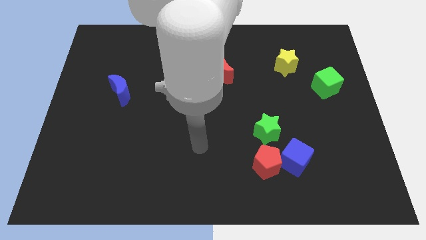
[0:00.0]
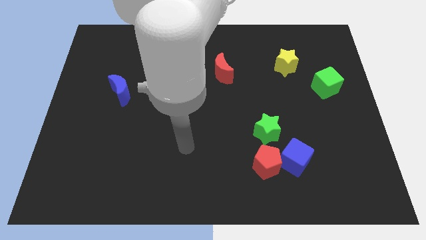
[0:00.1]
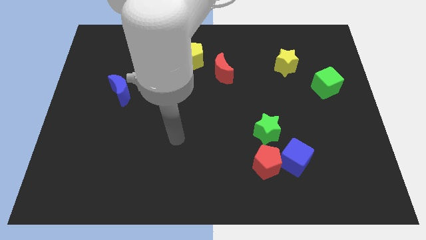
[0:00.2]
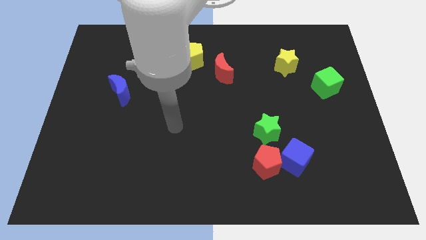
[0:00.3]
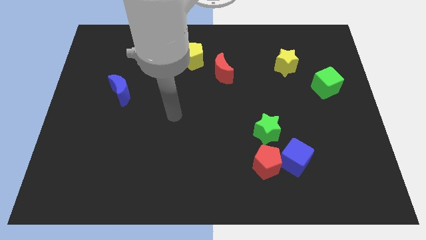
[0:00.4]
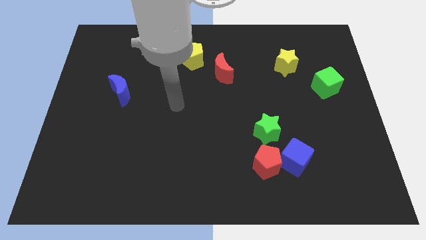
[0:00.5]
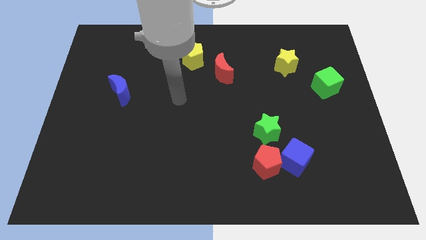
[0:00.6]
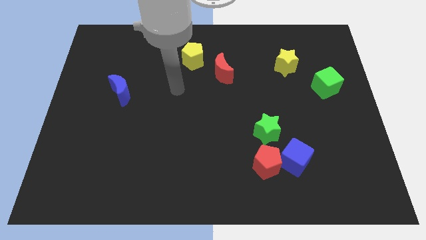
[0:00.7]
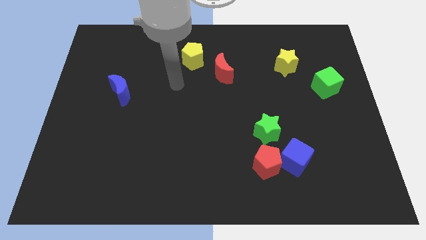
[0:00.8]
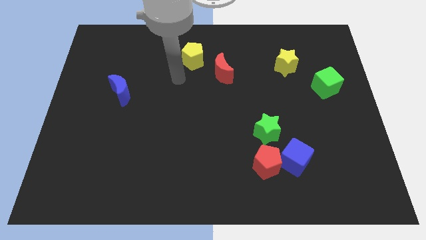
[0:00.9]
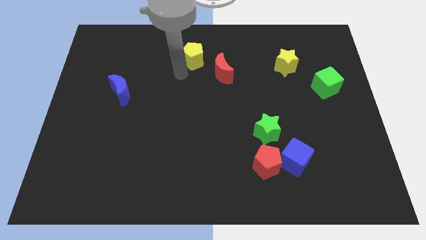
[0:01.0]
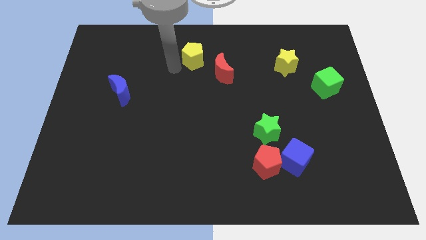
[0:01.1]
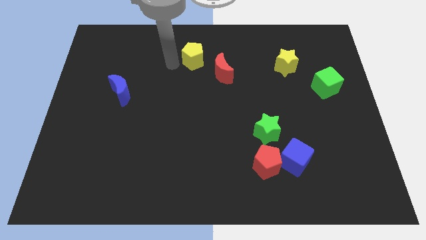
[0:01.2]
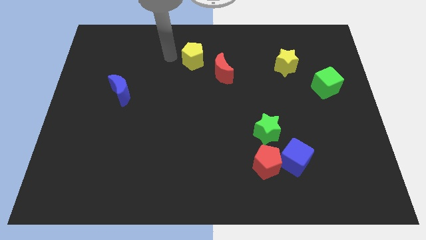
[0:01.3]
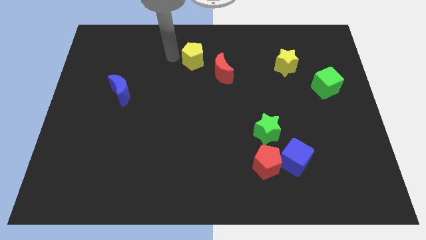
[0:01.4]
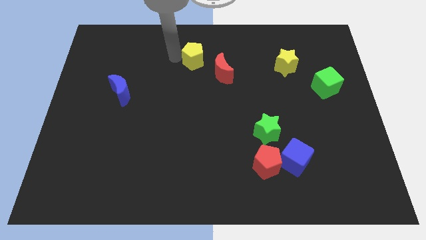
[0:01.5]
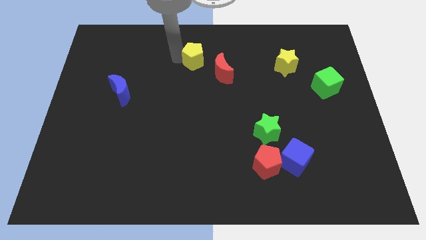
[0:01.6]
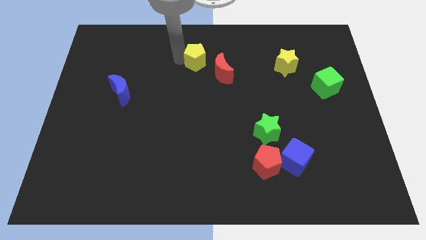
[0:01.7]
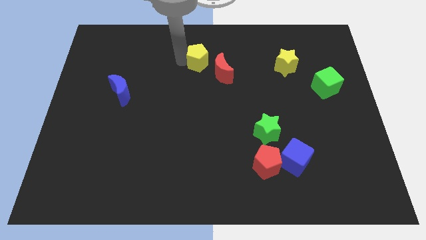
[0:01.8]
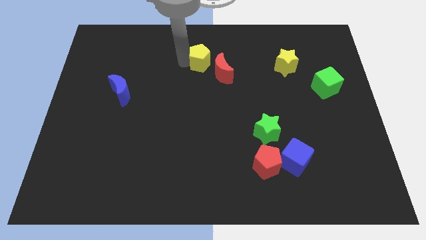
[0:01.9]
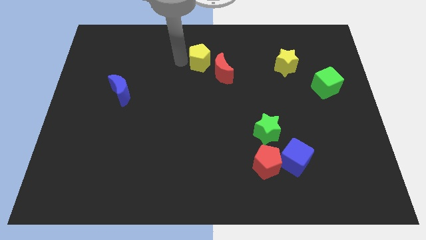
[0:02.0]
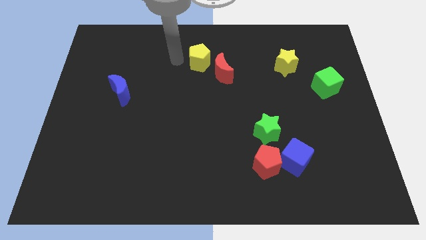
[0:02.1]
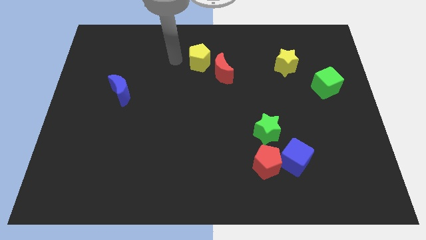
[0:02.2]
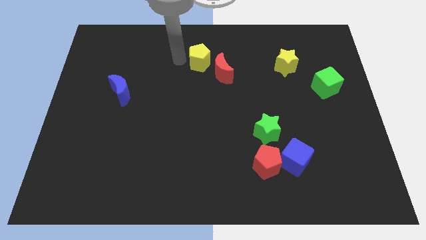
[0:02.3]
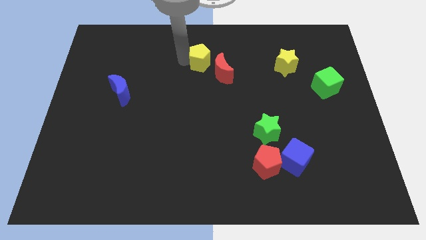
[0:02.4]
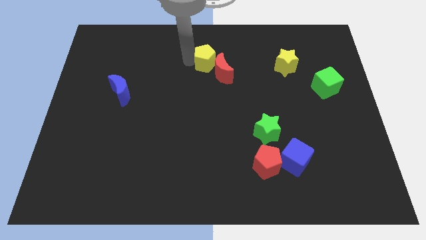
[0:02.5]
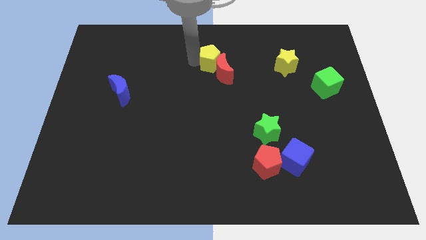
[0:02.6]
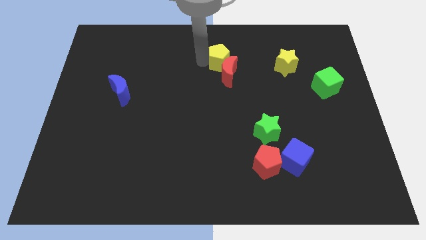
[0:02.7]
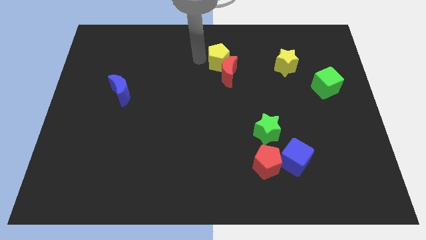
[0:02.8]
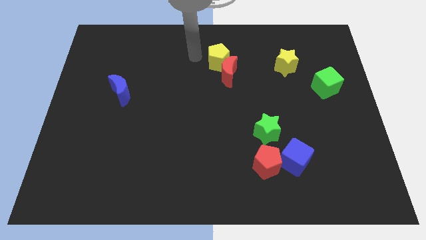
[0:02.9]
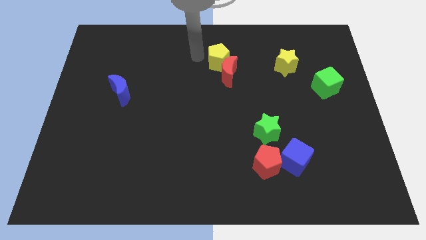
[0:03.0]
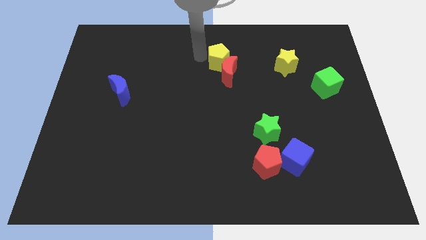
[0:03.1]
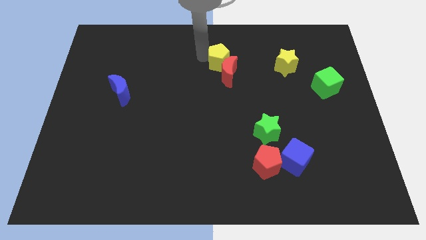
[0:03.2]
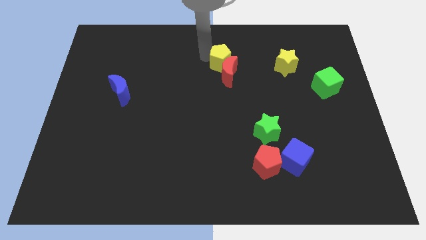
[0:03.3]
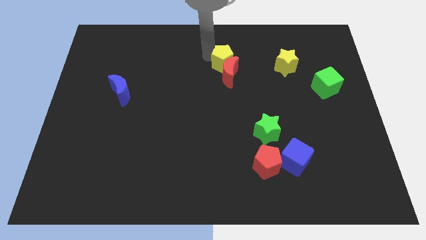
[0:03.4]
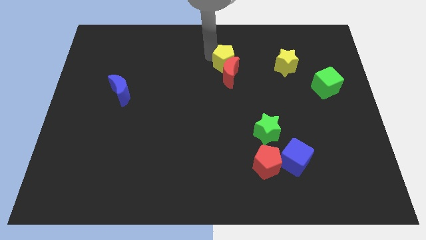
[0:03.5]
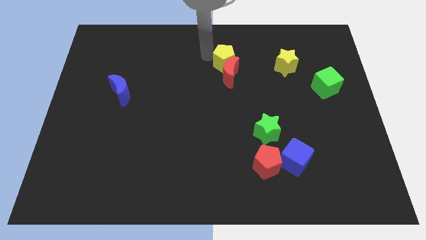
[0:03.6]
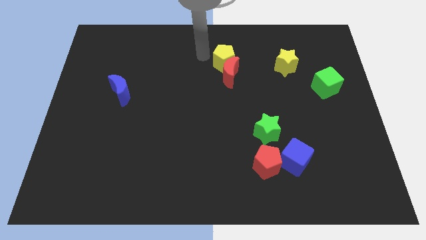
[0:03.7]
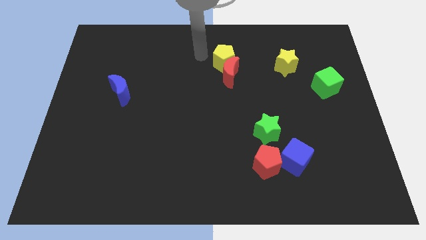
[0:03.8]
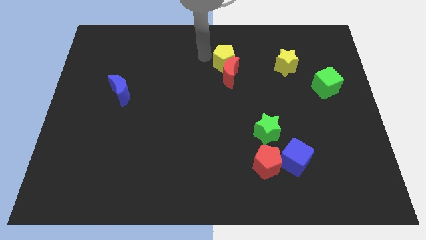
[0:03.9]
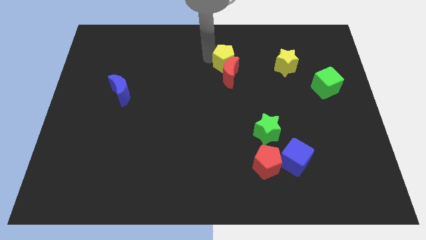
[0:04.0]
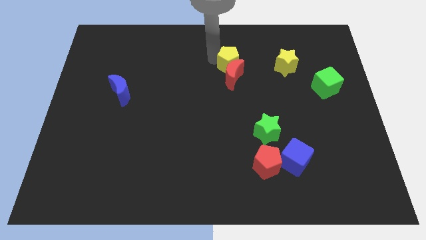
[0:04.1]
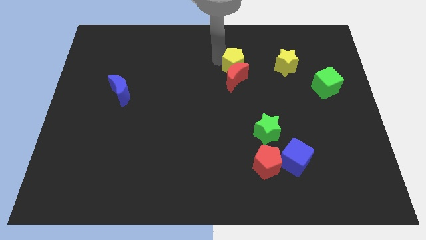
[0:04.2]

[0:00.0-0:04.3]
move the yellow pentagon a little bit down and to the right diagonally

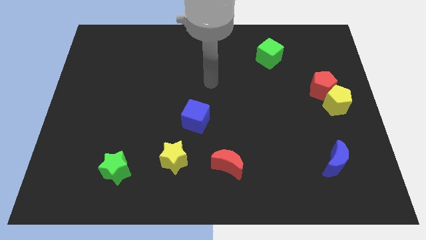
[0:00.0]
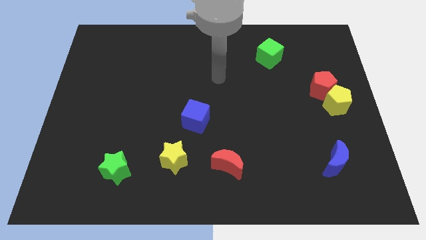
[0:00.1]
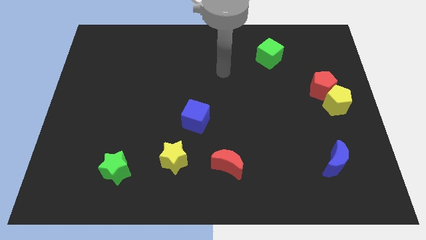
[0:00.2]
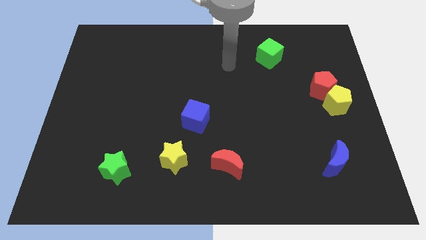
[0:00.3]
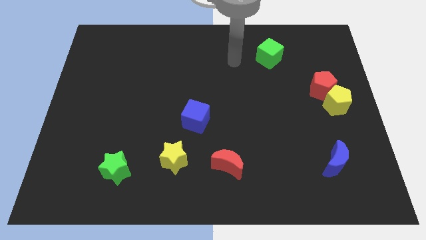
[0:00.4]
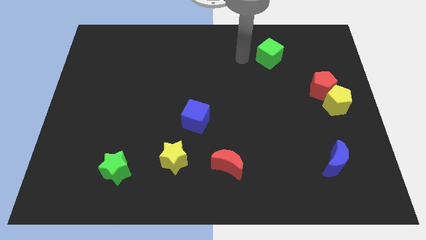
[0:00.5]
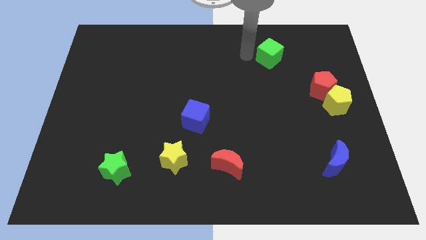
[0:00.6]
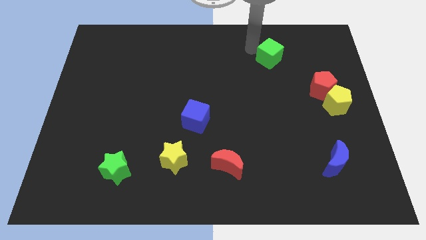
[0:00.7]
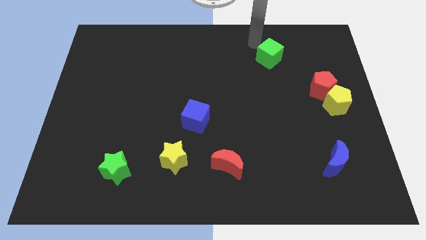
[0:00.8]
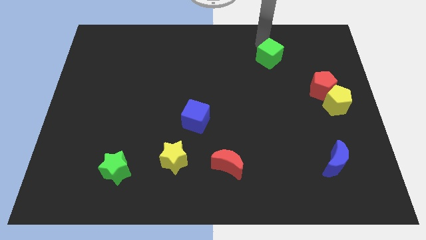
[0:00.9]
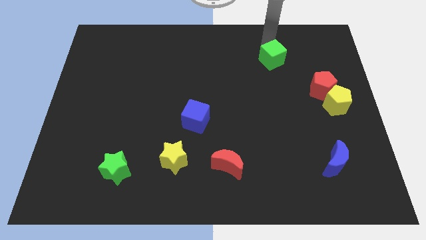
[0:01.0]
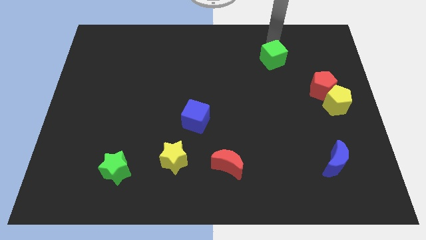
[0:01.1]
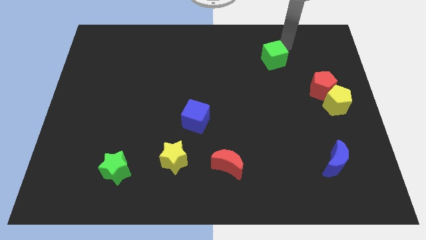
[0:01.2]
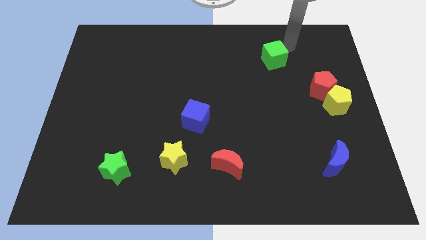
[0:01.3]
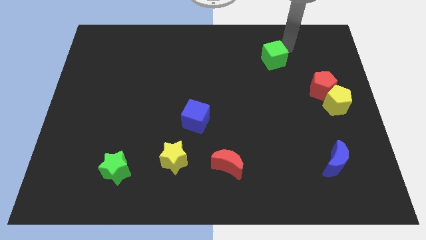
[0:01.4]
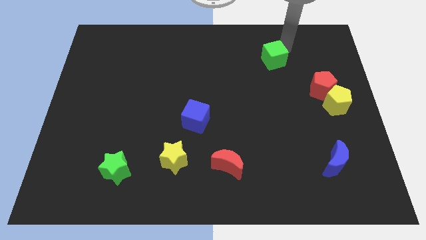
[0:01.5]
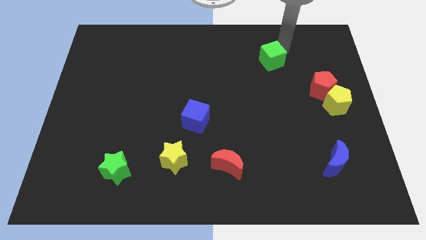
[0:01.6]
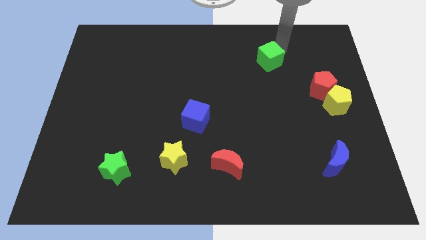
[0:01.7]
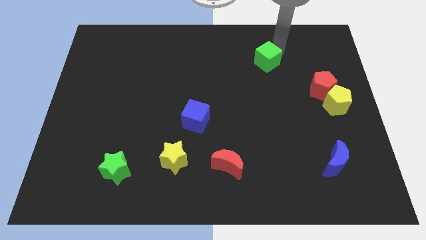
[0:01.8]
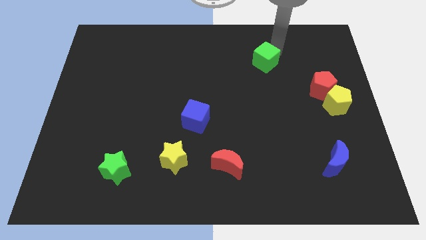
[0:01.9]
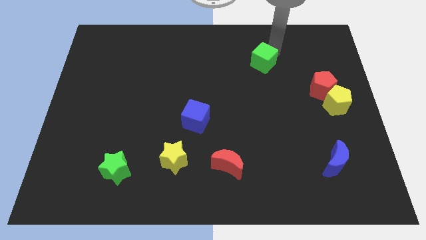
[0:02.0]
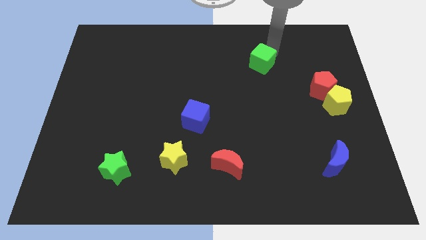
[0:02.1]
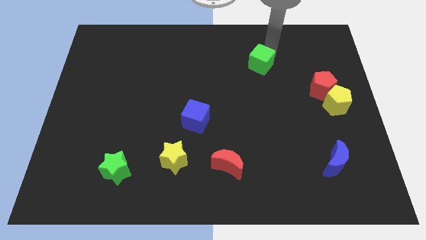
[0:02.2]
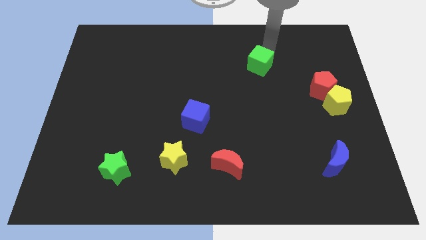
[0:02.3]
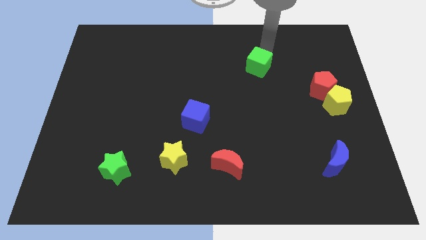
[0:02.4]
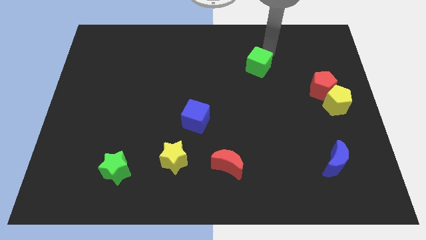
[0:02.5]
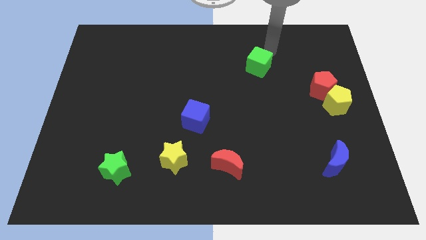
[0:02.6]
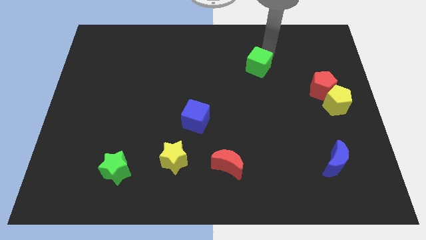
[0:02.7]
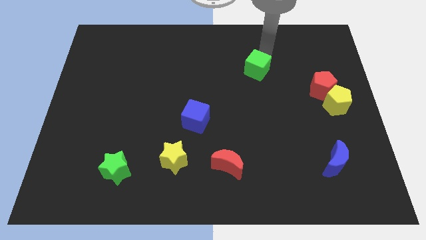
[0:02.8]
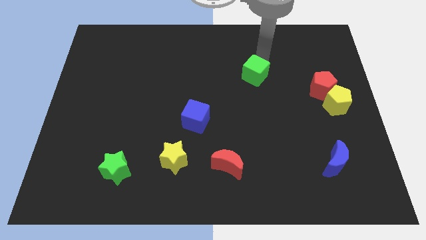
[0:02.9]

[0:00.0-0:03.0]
move the green cube downwards and to the left diagonally a bit

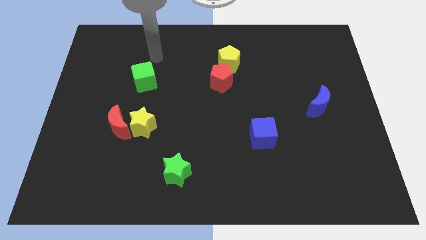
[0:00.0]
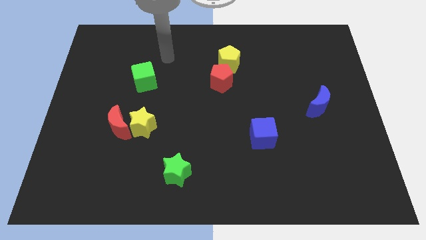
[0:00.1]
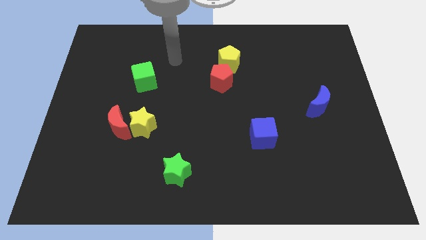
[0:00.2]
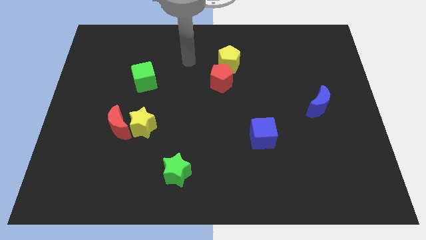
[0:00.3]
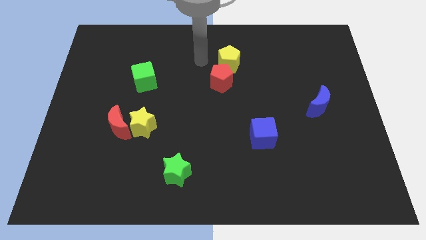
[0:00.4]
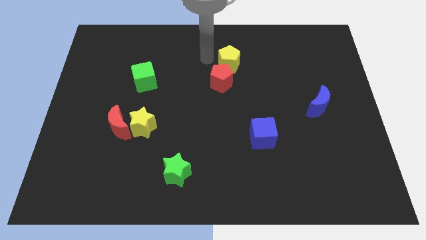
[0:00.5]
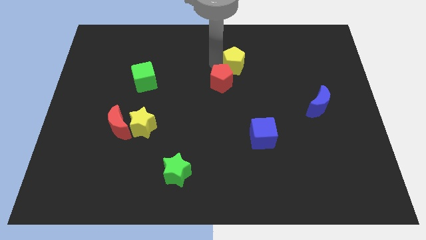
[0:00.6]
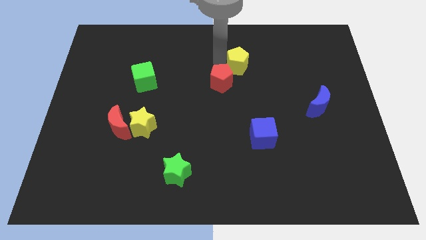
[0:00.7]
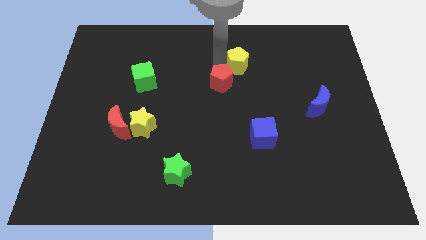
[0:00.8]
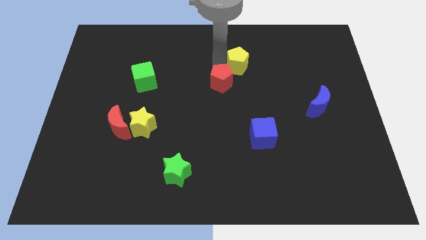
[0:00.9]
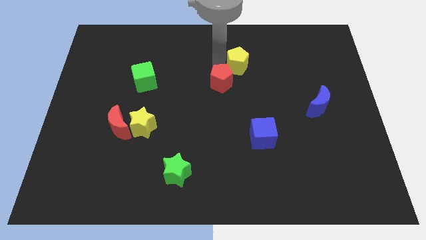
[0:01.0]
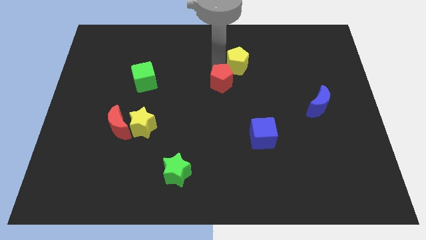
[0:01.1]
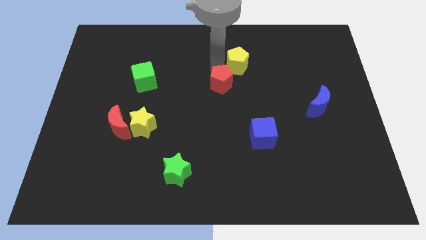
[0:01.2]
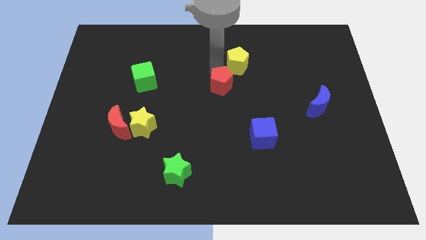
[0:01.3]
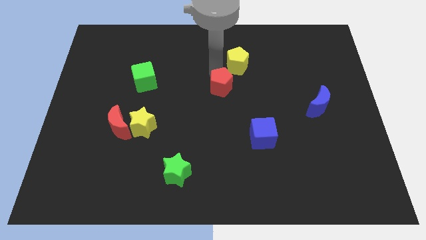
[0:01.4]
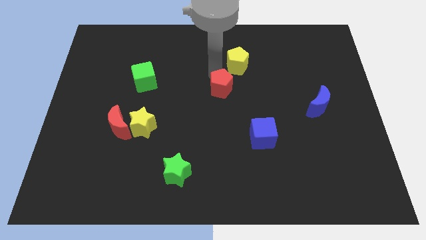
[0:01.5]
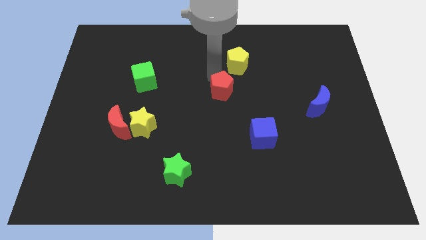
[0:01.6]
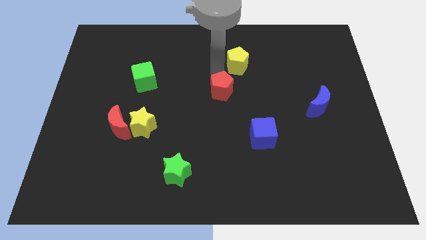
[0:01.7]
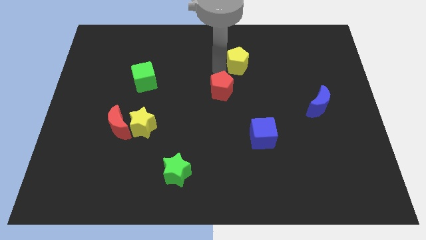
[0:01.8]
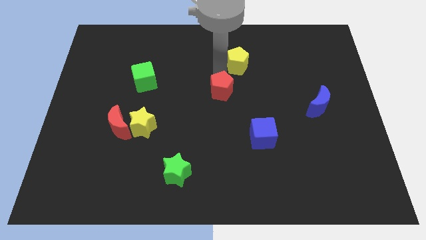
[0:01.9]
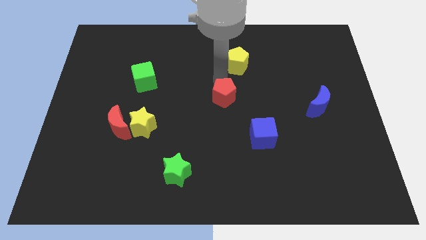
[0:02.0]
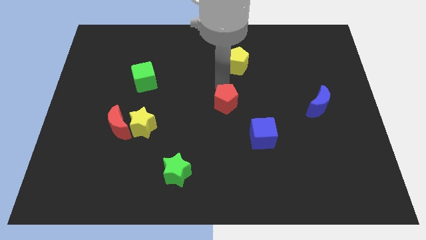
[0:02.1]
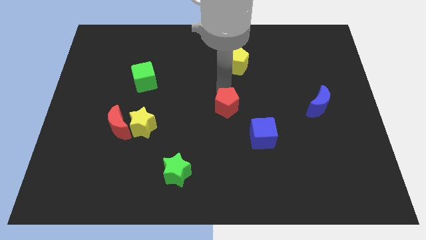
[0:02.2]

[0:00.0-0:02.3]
slightly move the red pentagon downwards
